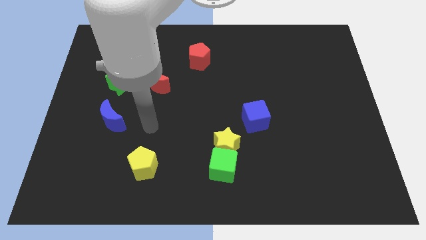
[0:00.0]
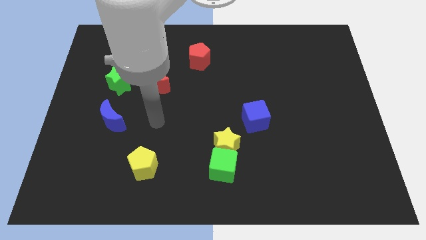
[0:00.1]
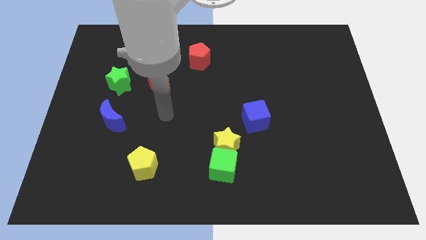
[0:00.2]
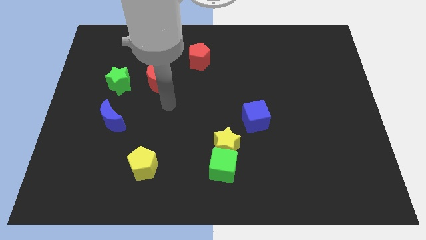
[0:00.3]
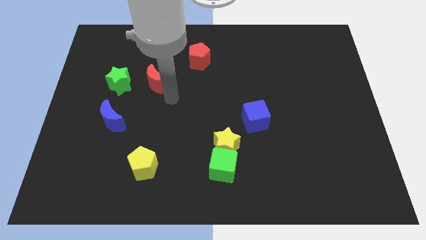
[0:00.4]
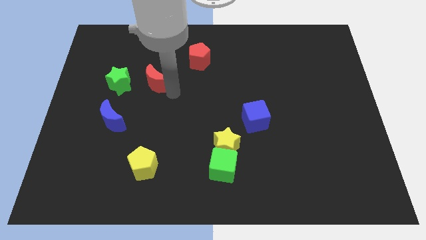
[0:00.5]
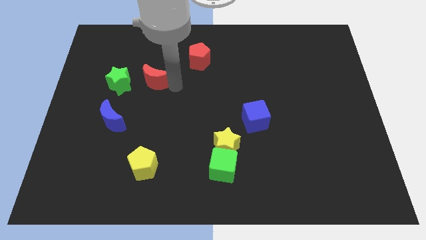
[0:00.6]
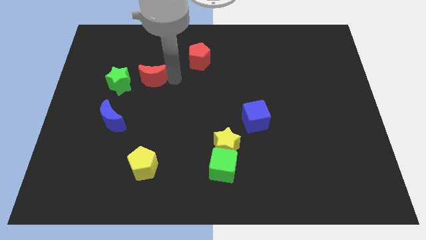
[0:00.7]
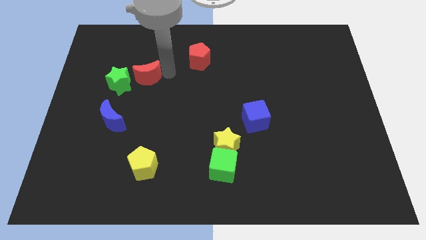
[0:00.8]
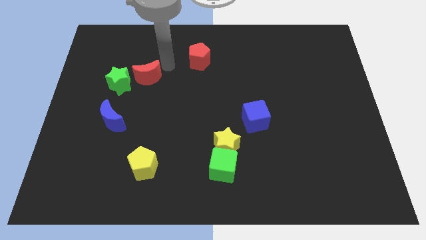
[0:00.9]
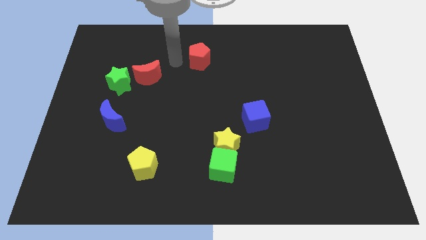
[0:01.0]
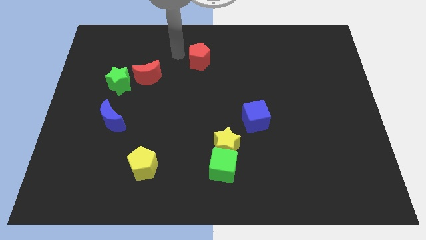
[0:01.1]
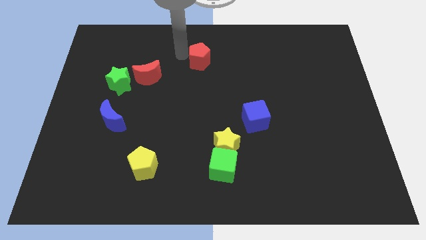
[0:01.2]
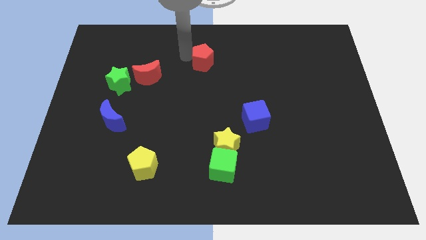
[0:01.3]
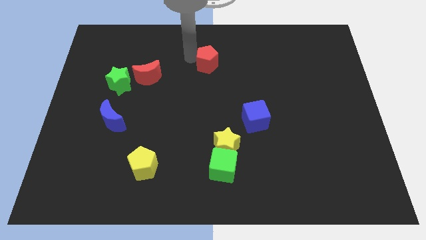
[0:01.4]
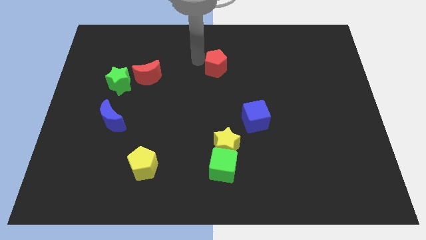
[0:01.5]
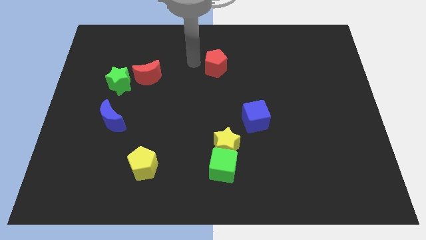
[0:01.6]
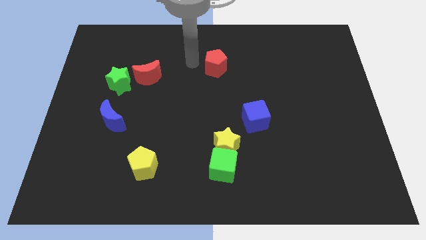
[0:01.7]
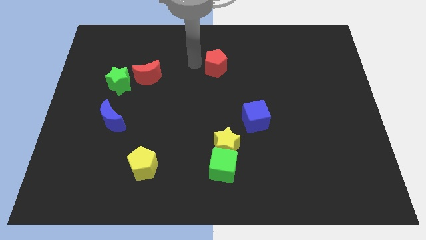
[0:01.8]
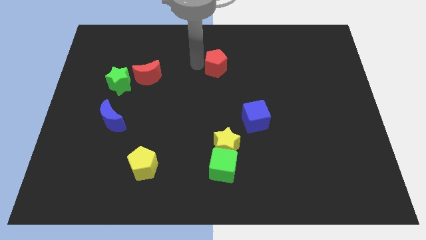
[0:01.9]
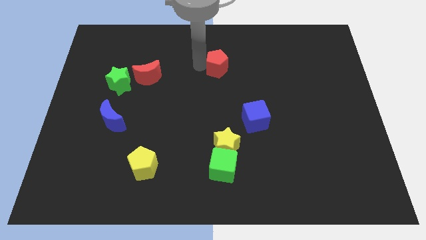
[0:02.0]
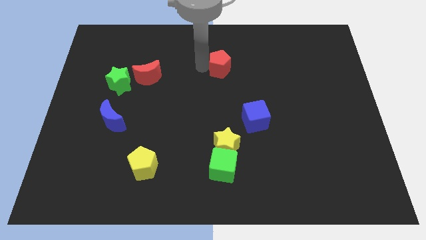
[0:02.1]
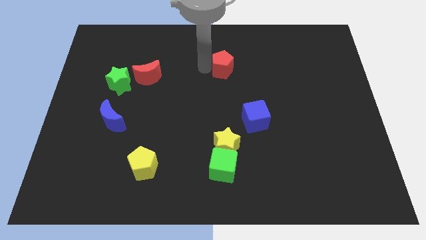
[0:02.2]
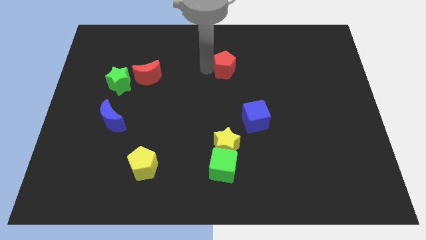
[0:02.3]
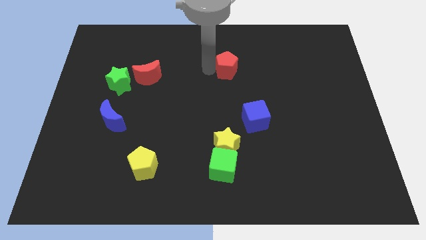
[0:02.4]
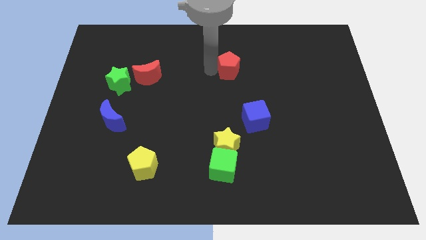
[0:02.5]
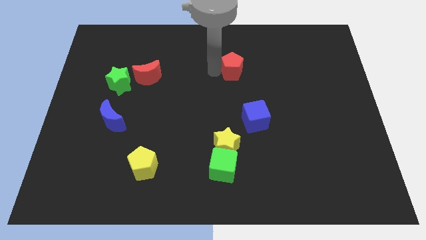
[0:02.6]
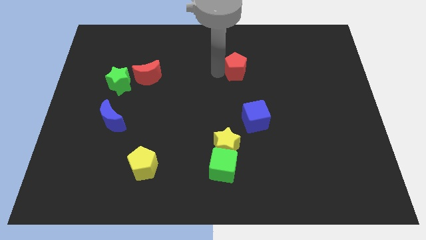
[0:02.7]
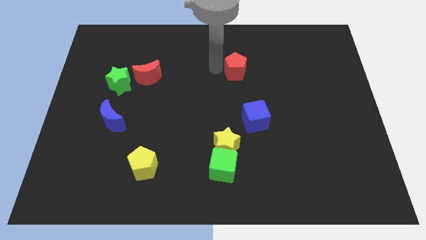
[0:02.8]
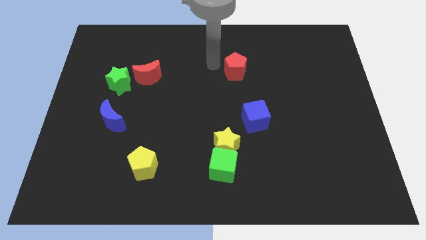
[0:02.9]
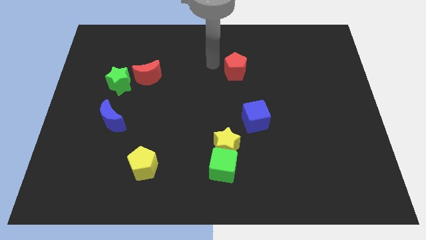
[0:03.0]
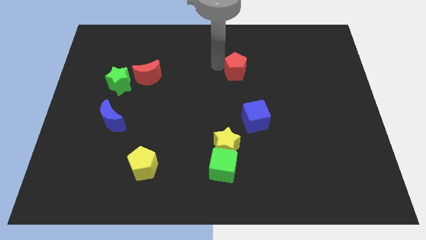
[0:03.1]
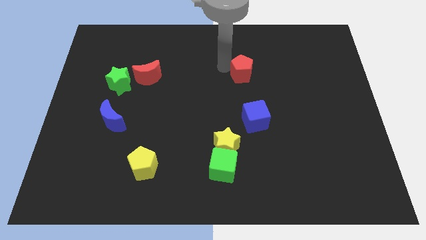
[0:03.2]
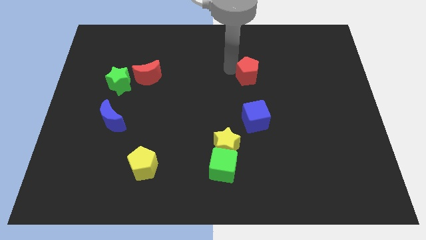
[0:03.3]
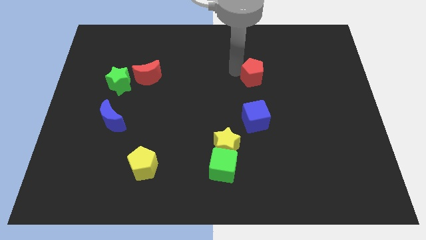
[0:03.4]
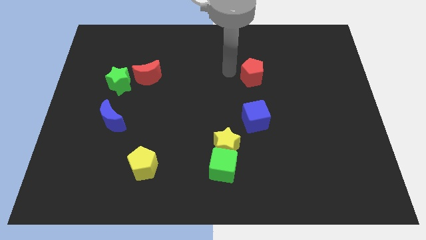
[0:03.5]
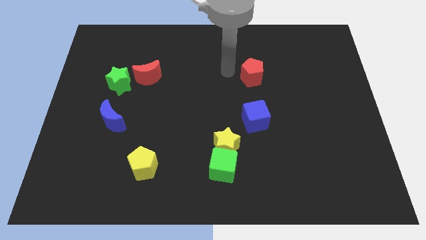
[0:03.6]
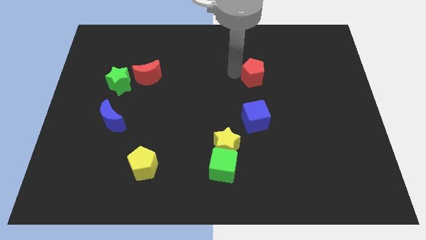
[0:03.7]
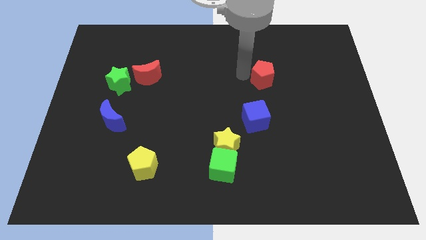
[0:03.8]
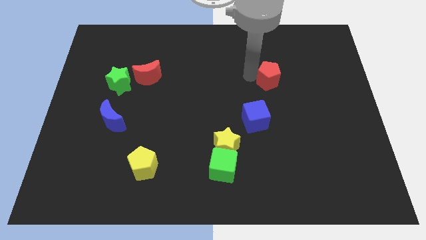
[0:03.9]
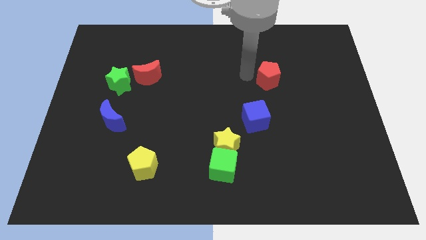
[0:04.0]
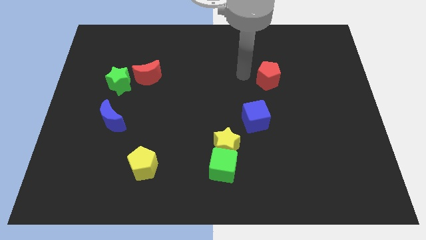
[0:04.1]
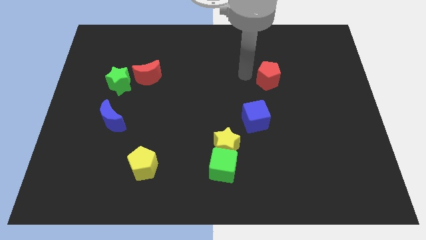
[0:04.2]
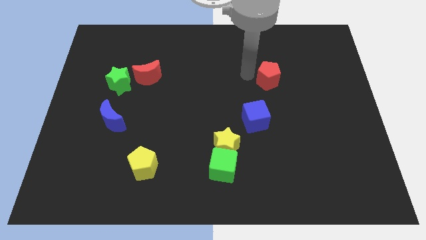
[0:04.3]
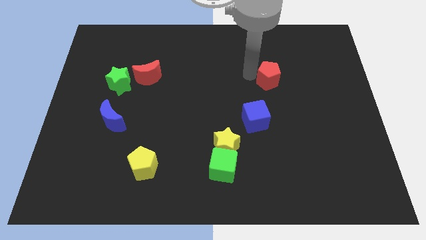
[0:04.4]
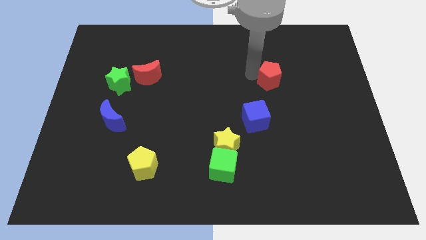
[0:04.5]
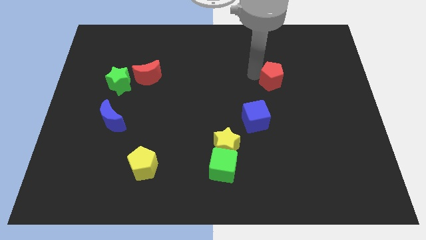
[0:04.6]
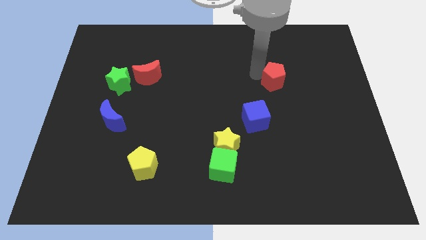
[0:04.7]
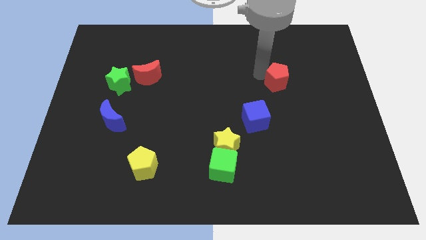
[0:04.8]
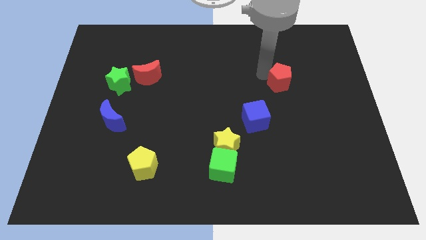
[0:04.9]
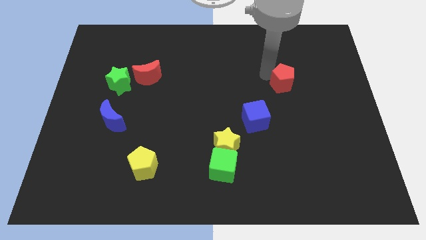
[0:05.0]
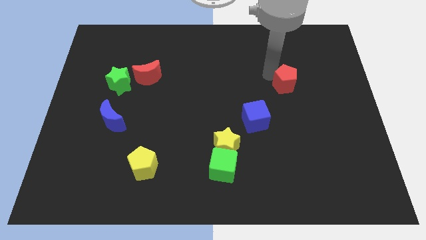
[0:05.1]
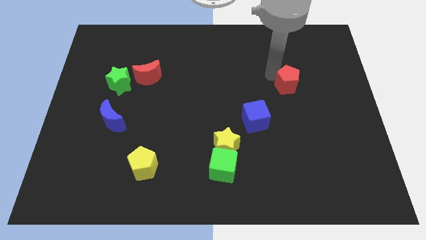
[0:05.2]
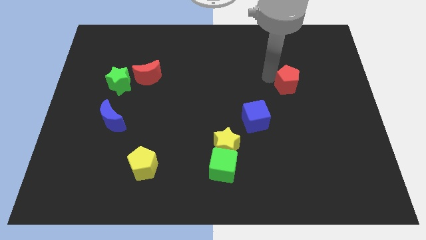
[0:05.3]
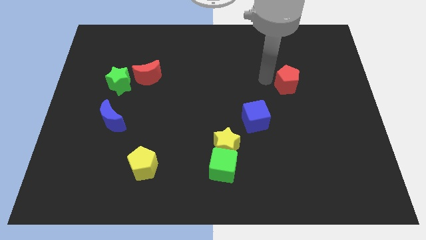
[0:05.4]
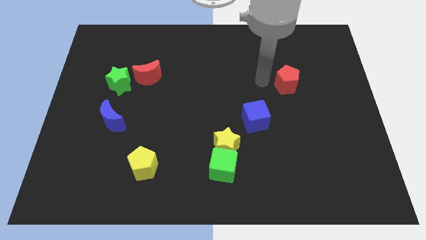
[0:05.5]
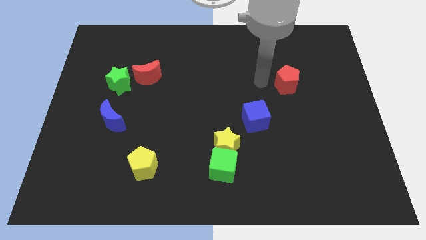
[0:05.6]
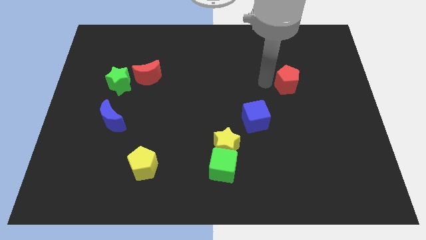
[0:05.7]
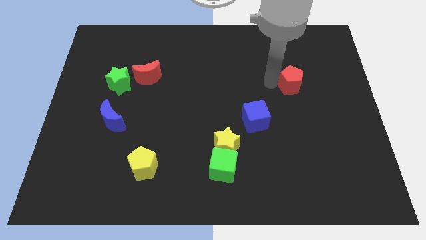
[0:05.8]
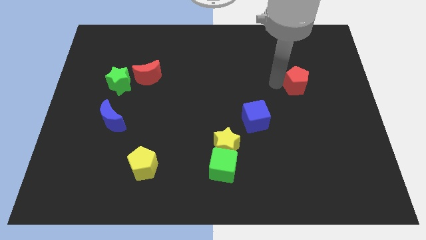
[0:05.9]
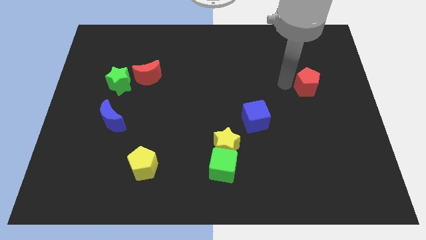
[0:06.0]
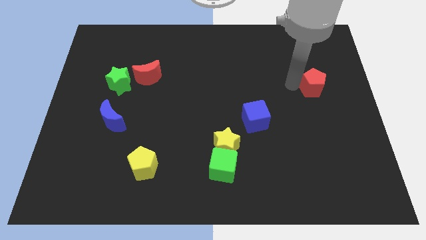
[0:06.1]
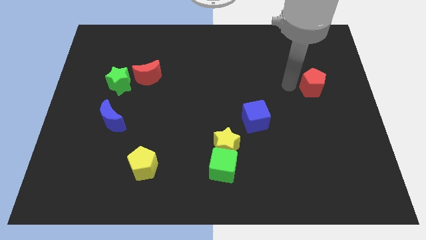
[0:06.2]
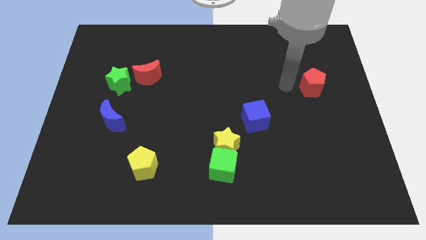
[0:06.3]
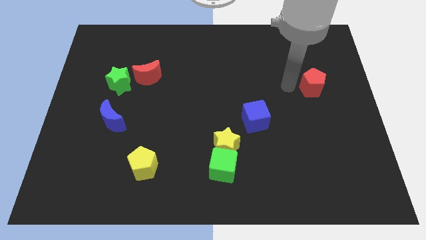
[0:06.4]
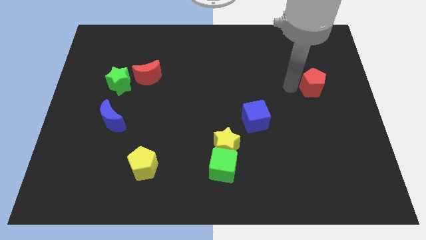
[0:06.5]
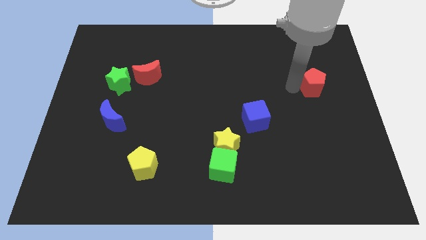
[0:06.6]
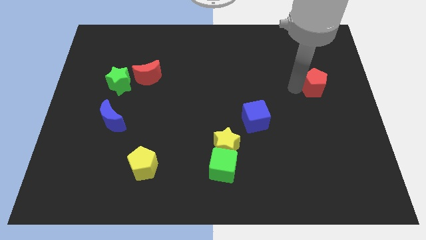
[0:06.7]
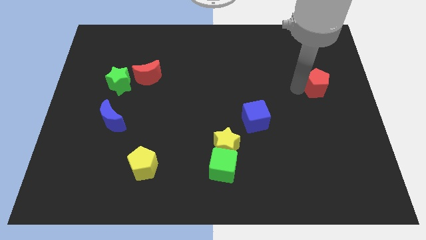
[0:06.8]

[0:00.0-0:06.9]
put the red pentagon to the center right

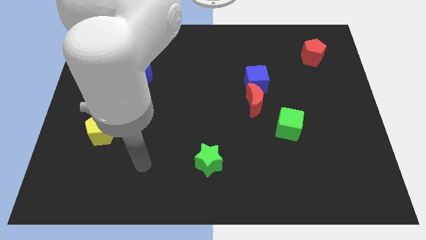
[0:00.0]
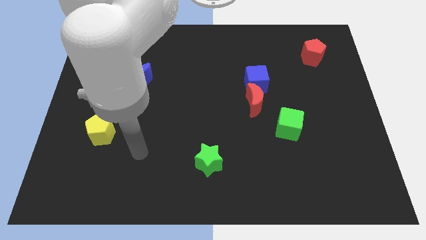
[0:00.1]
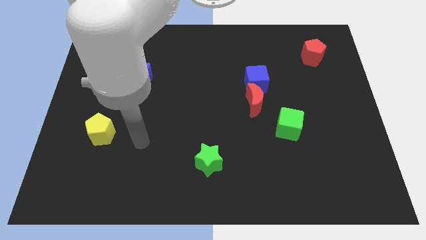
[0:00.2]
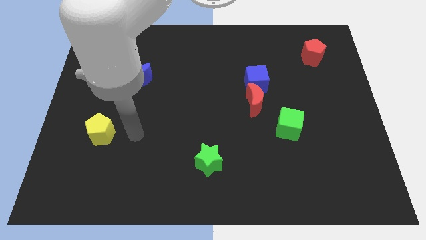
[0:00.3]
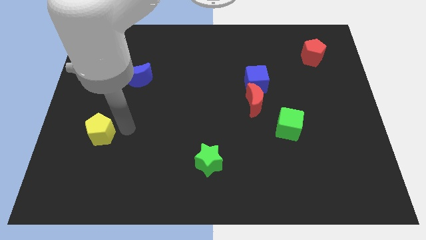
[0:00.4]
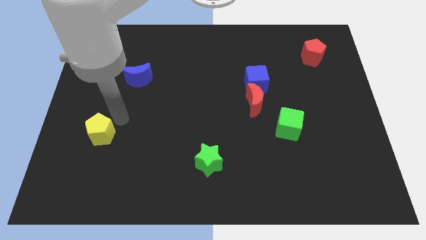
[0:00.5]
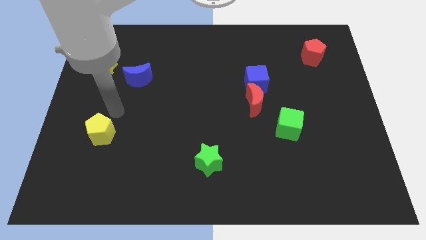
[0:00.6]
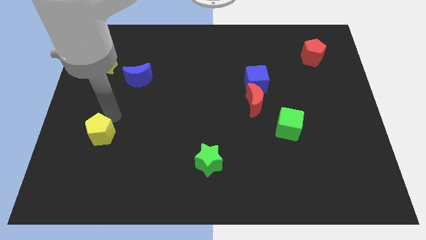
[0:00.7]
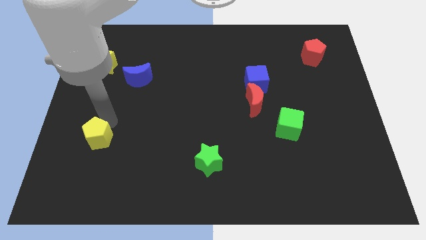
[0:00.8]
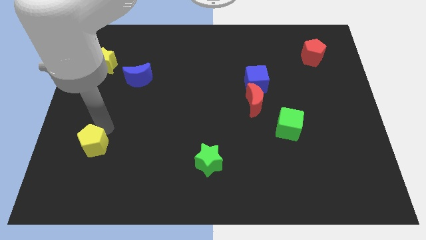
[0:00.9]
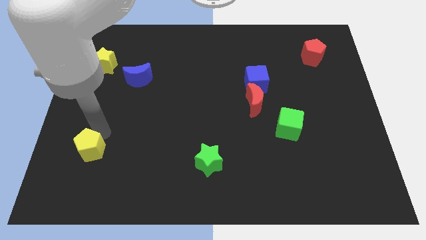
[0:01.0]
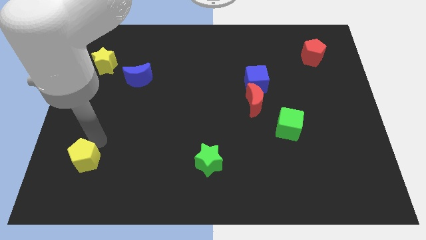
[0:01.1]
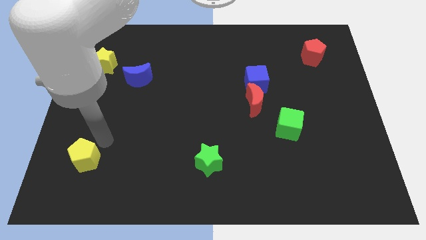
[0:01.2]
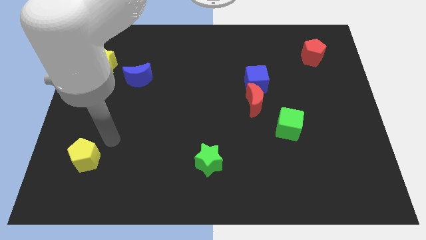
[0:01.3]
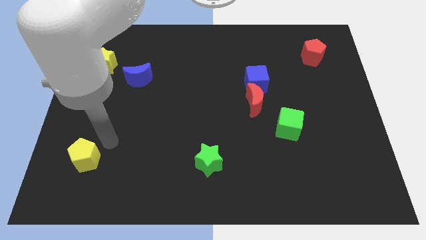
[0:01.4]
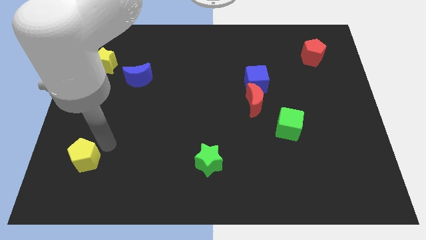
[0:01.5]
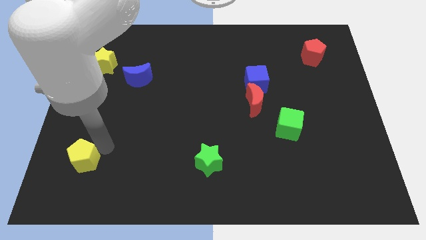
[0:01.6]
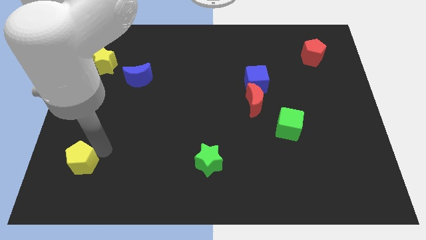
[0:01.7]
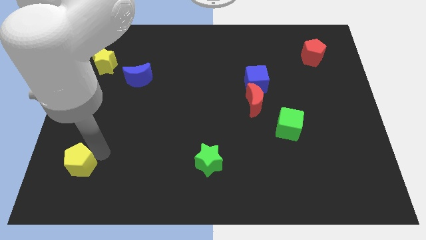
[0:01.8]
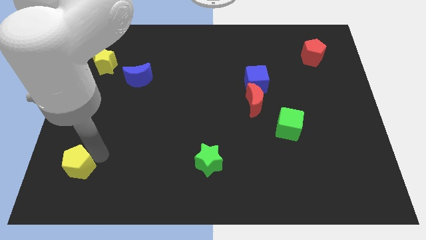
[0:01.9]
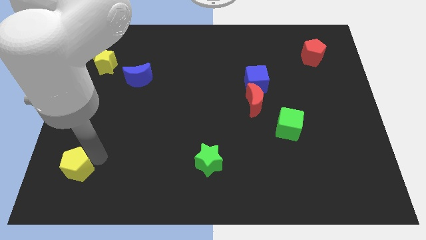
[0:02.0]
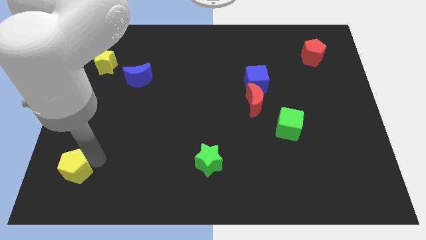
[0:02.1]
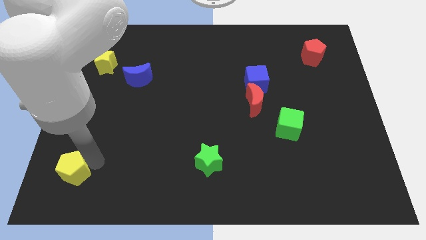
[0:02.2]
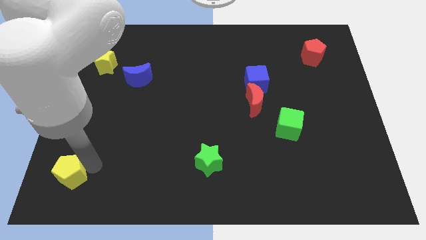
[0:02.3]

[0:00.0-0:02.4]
move the yellow pentagon to the bottom left
